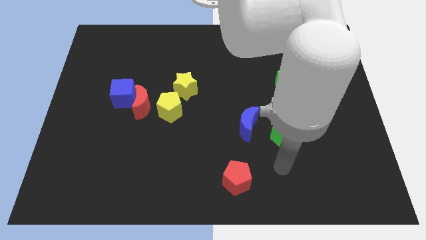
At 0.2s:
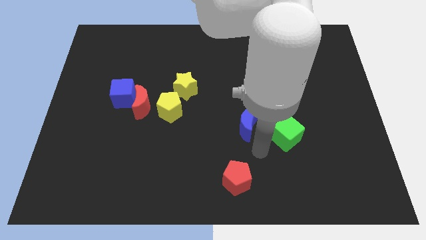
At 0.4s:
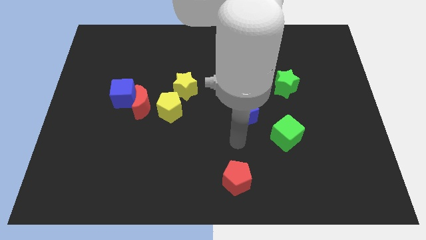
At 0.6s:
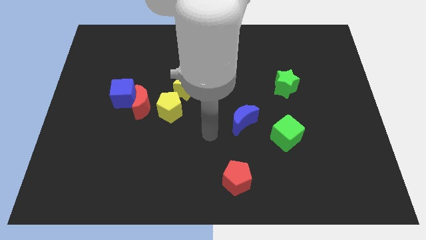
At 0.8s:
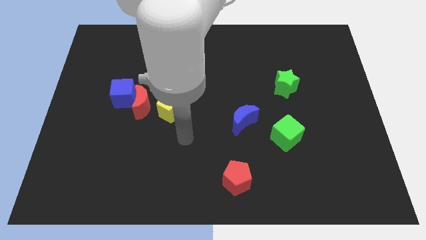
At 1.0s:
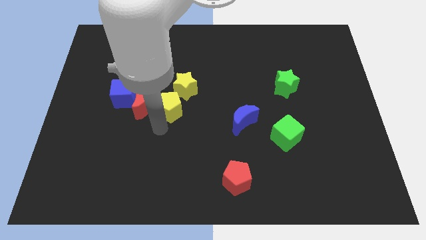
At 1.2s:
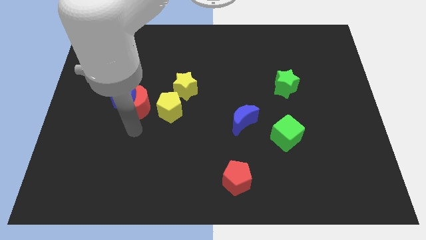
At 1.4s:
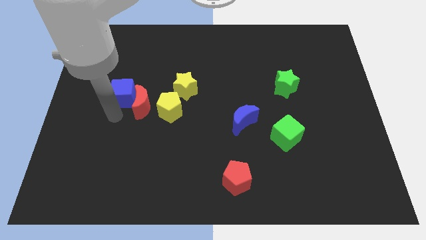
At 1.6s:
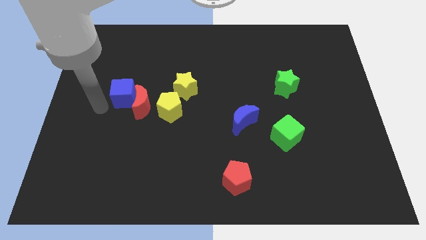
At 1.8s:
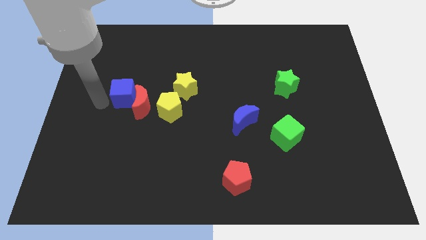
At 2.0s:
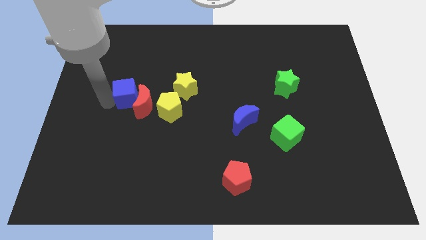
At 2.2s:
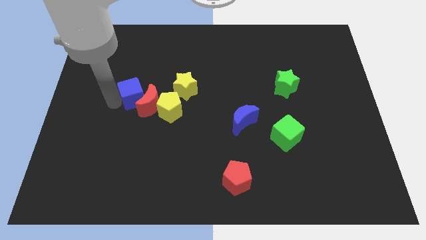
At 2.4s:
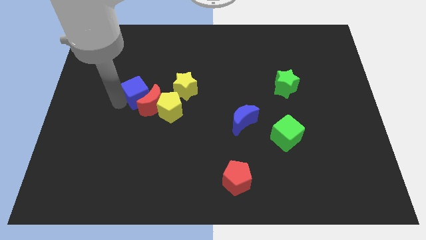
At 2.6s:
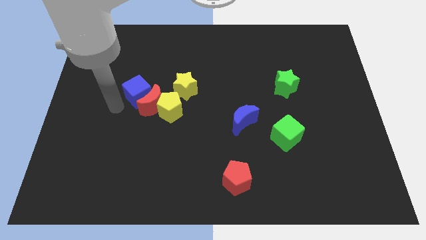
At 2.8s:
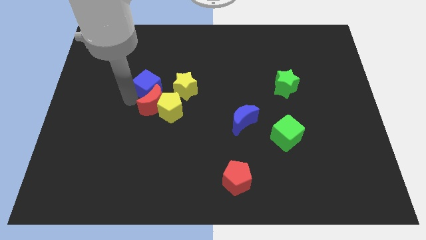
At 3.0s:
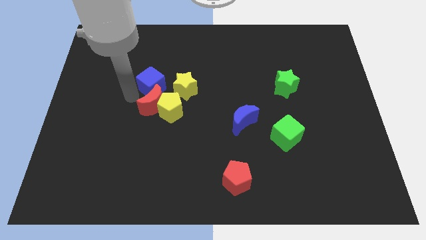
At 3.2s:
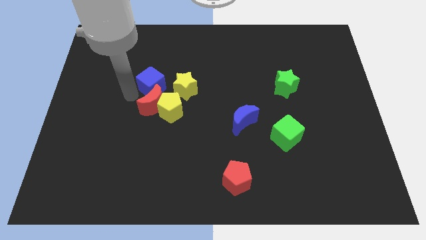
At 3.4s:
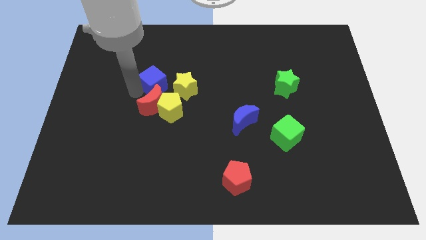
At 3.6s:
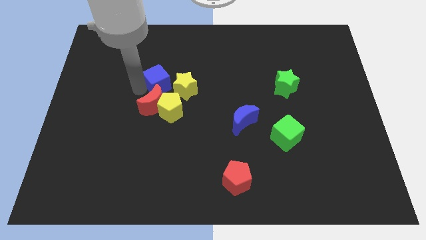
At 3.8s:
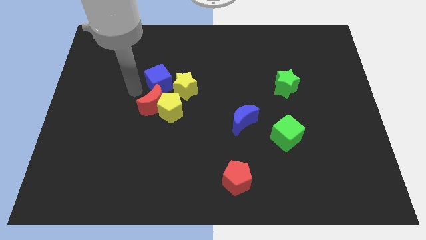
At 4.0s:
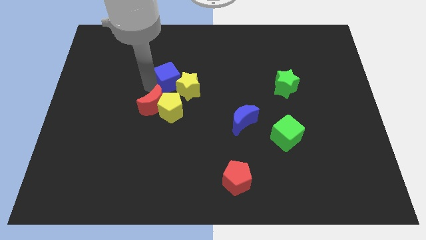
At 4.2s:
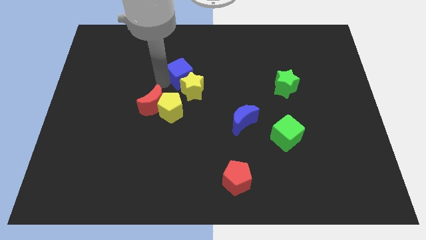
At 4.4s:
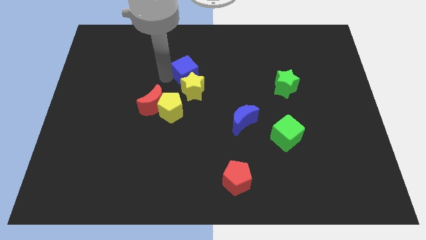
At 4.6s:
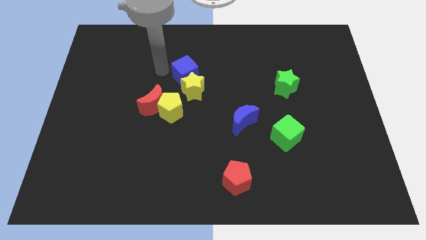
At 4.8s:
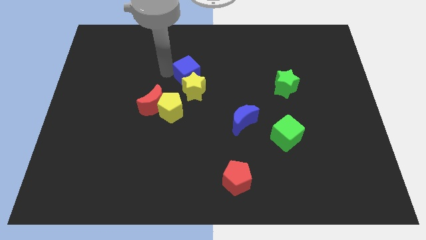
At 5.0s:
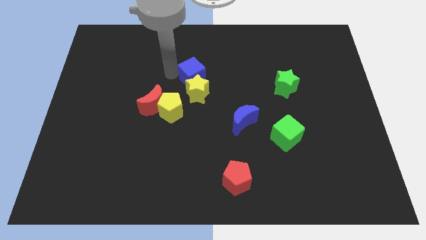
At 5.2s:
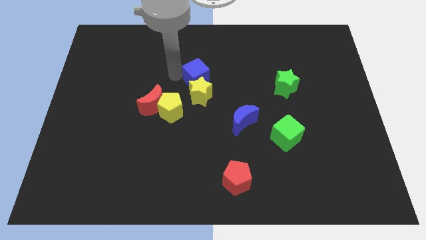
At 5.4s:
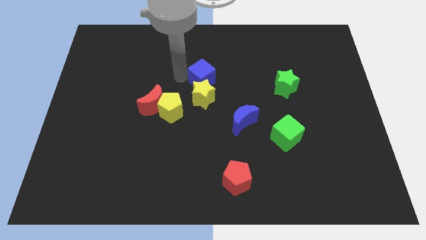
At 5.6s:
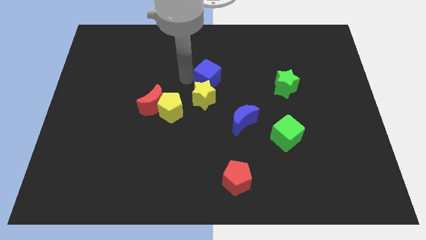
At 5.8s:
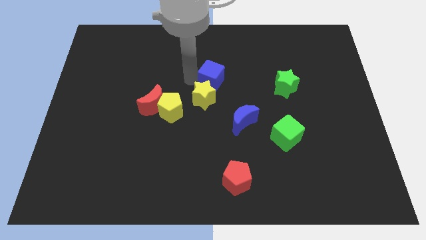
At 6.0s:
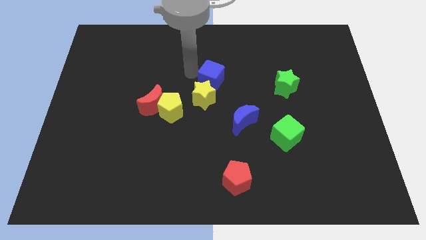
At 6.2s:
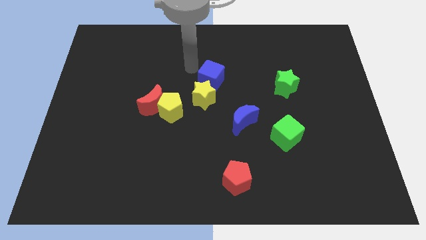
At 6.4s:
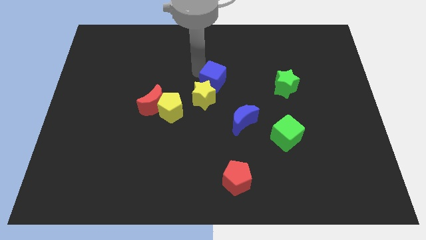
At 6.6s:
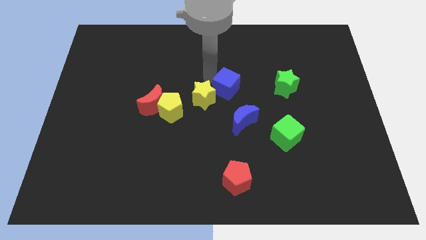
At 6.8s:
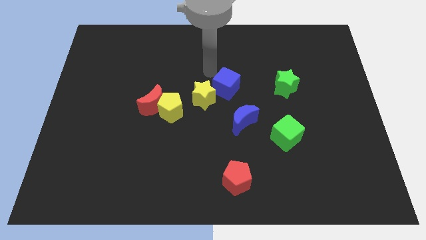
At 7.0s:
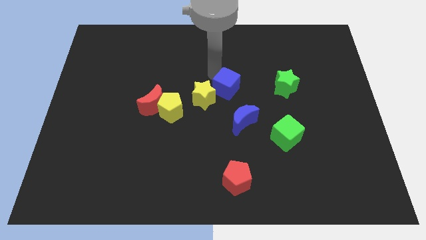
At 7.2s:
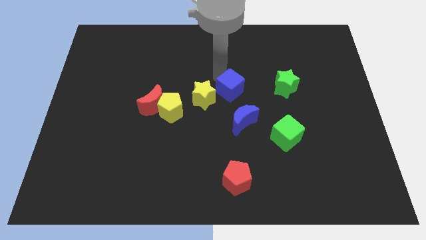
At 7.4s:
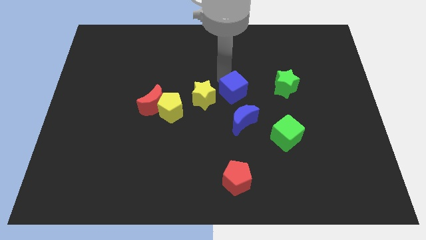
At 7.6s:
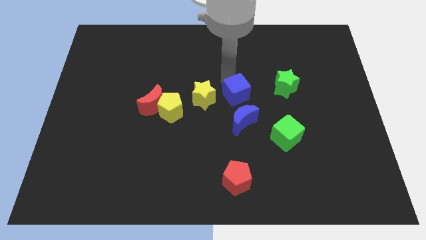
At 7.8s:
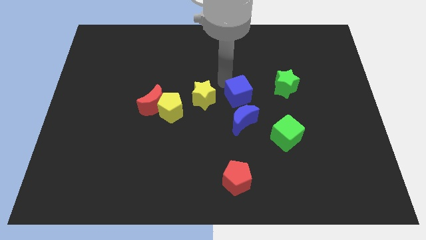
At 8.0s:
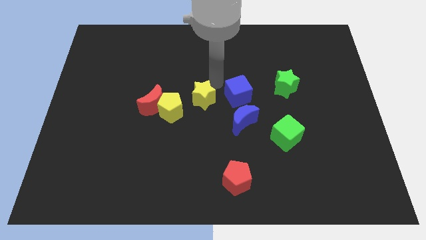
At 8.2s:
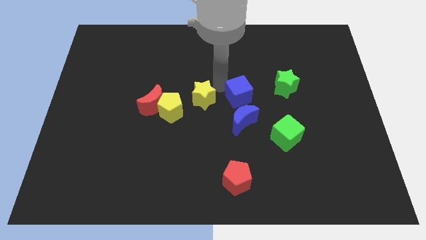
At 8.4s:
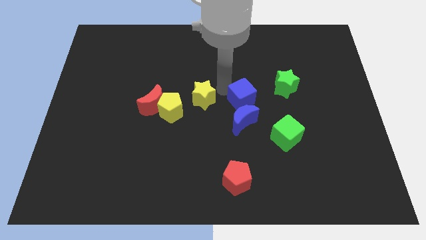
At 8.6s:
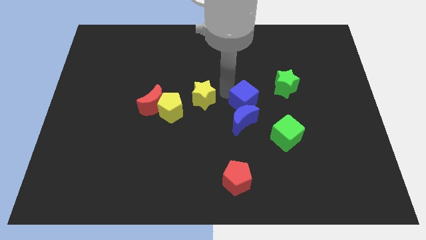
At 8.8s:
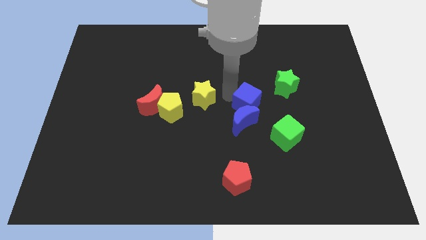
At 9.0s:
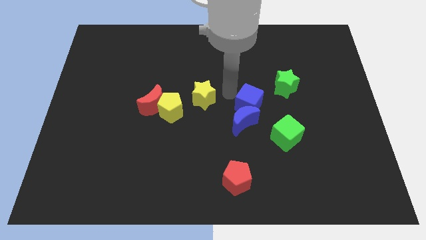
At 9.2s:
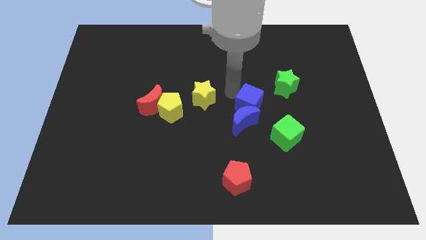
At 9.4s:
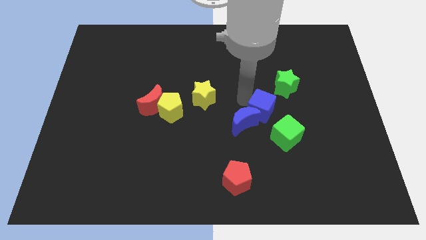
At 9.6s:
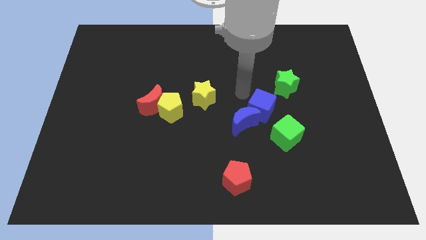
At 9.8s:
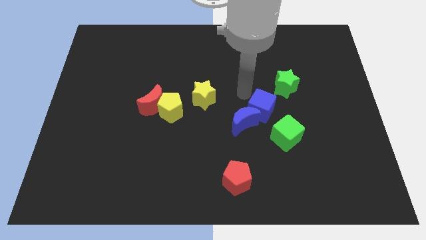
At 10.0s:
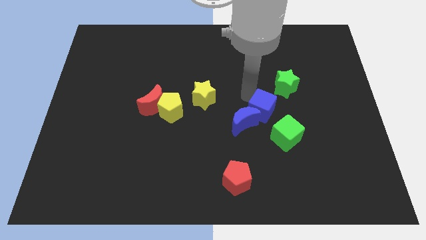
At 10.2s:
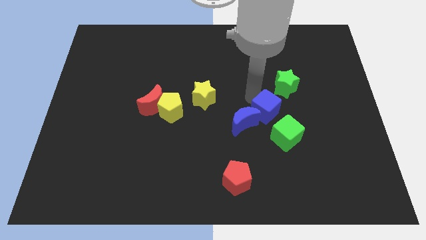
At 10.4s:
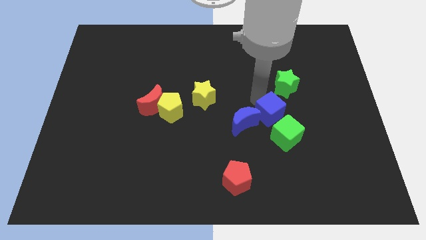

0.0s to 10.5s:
put the blue cube to the bottom side of the green star

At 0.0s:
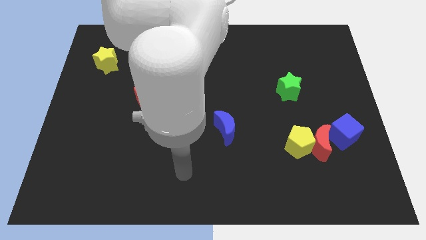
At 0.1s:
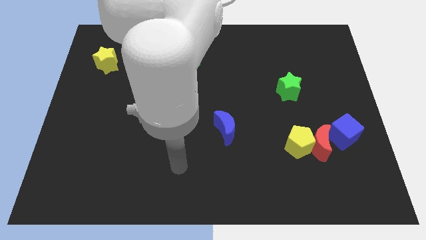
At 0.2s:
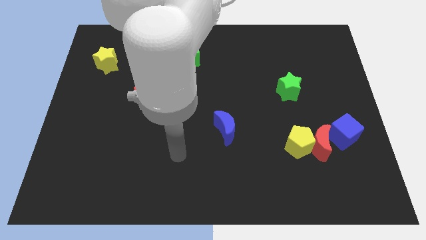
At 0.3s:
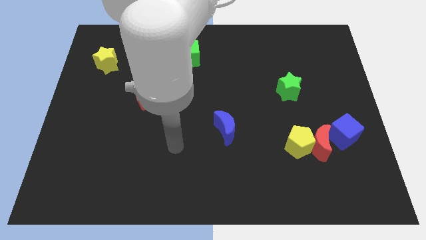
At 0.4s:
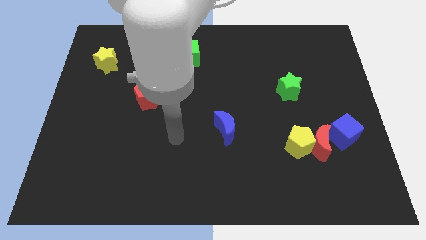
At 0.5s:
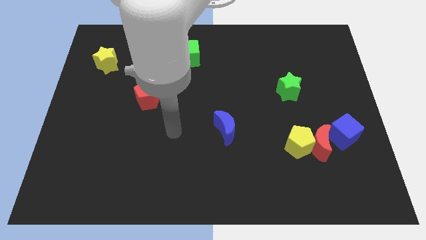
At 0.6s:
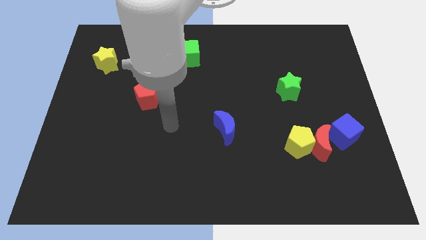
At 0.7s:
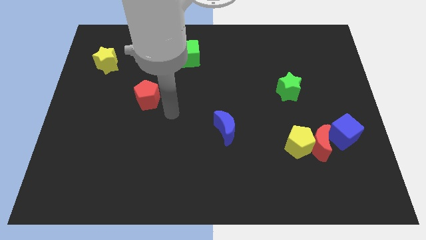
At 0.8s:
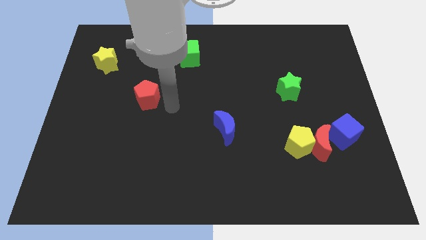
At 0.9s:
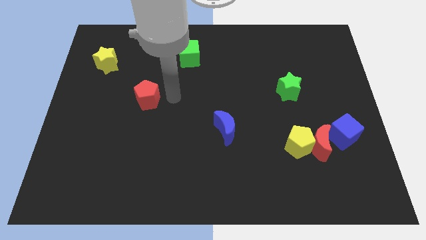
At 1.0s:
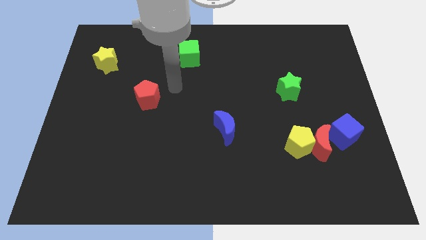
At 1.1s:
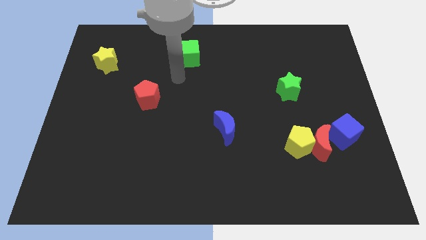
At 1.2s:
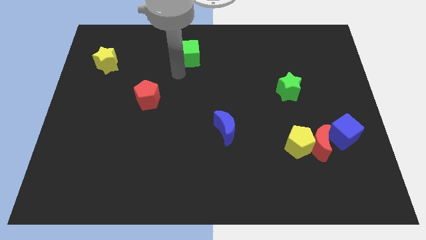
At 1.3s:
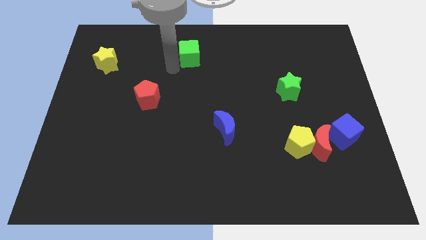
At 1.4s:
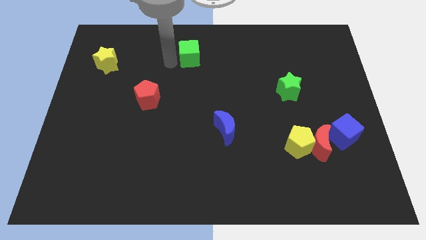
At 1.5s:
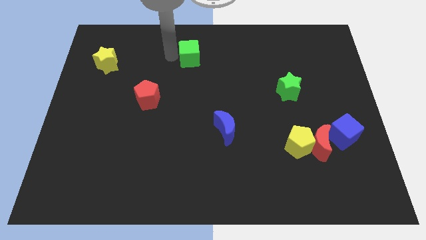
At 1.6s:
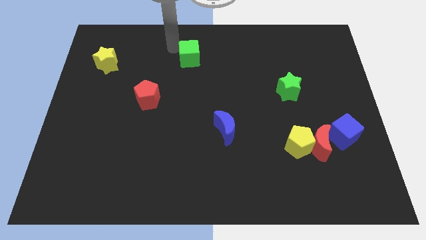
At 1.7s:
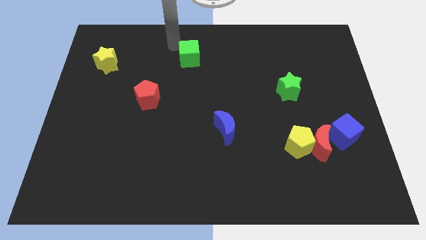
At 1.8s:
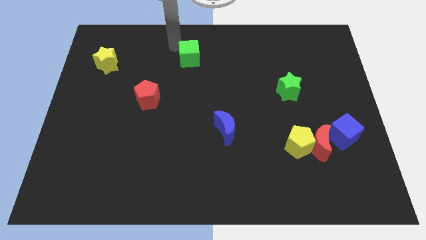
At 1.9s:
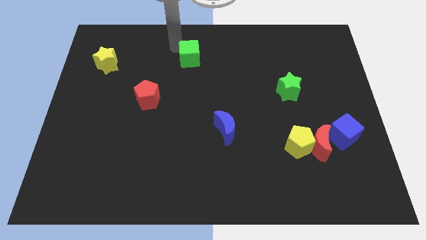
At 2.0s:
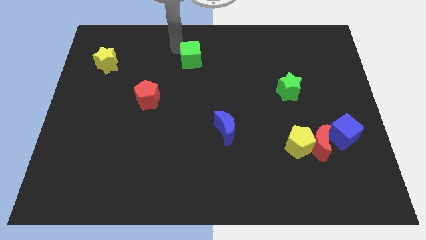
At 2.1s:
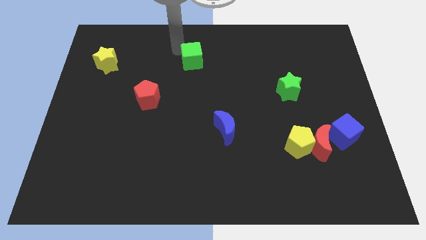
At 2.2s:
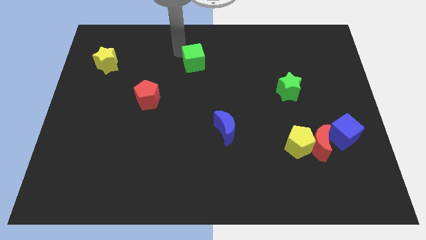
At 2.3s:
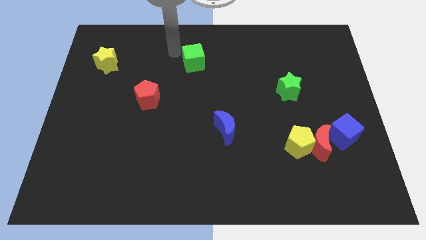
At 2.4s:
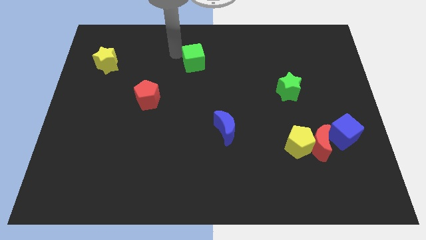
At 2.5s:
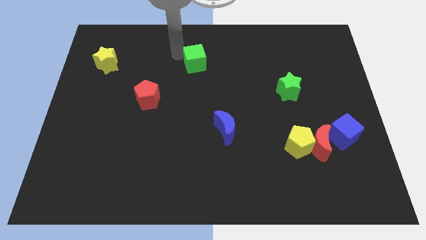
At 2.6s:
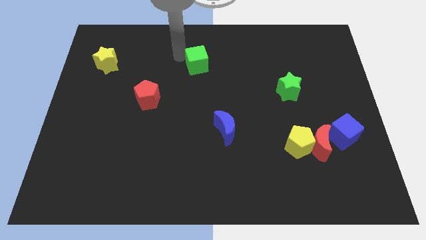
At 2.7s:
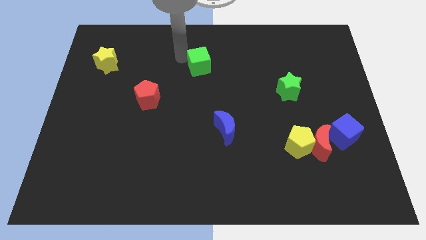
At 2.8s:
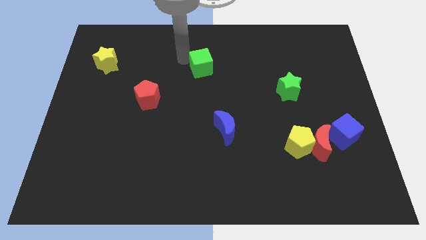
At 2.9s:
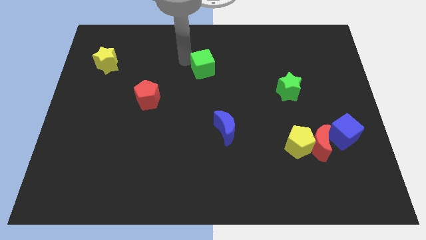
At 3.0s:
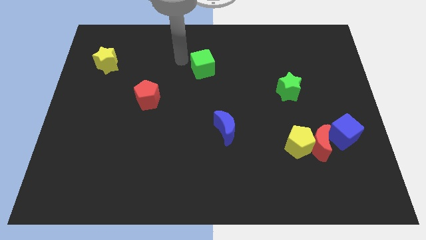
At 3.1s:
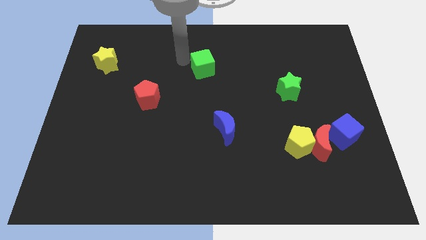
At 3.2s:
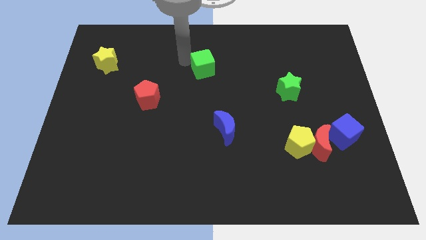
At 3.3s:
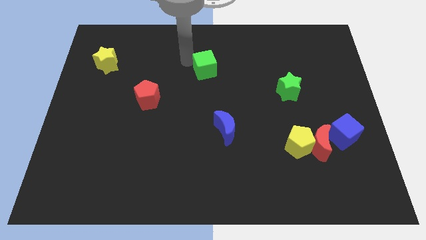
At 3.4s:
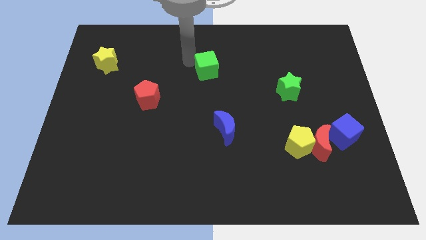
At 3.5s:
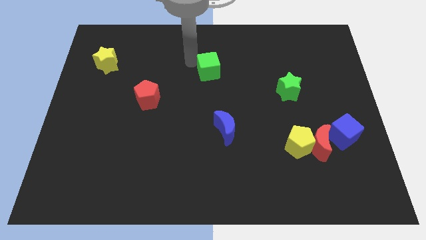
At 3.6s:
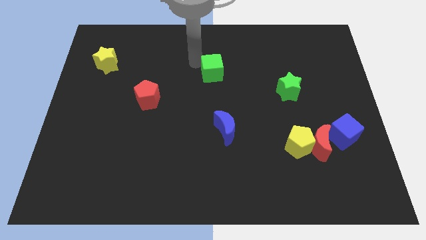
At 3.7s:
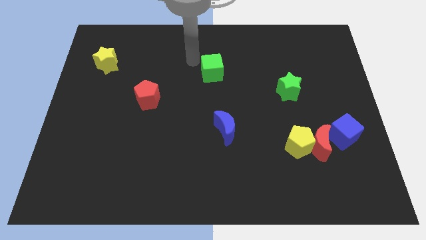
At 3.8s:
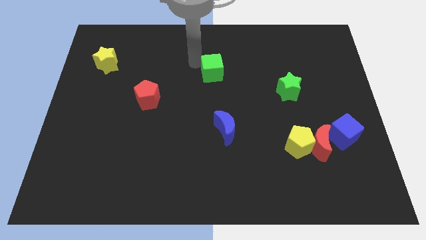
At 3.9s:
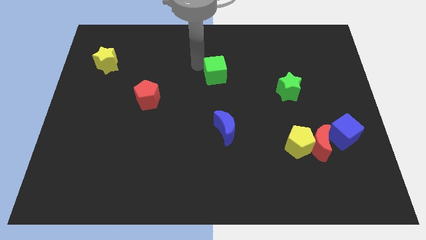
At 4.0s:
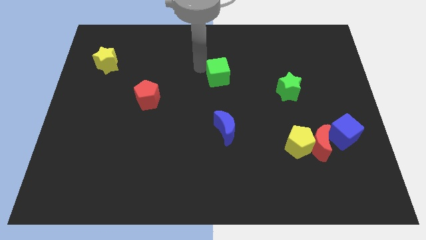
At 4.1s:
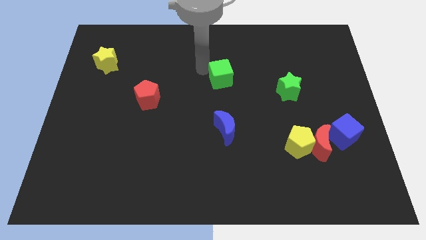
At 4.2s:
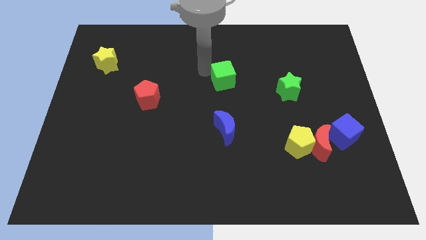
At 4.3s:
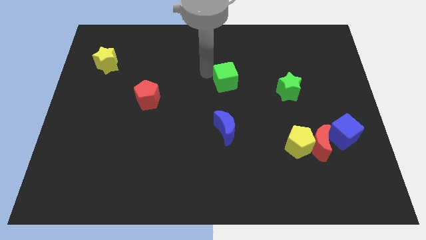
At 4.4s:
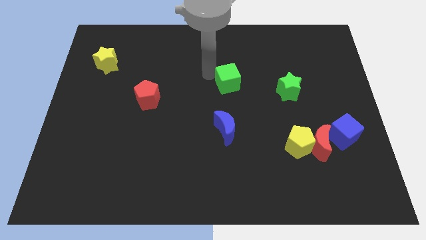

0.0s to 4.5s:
slide the green cube to the left side of the green star
